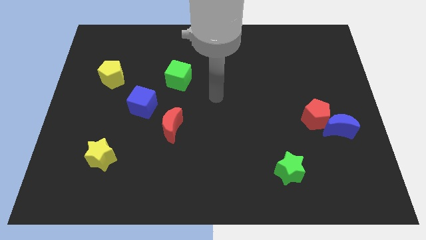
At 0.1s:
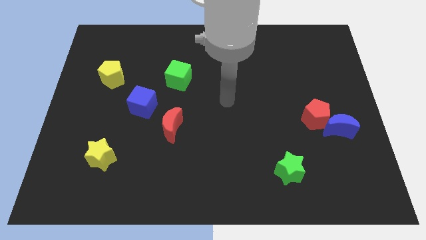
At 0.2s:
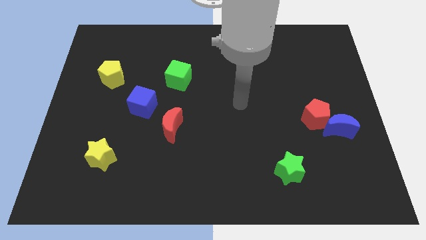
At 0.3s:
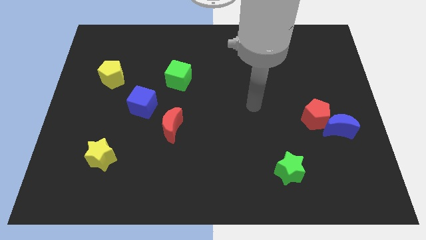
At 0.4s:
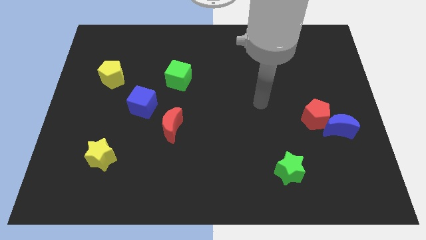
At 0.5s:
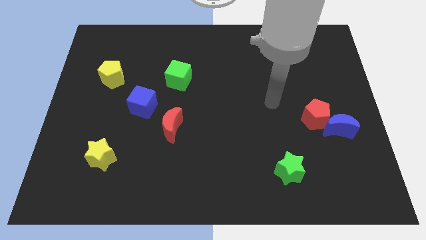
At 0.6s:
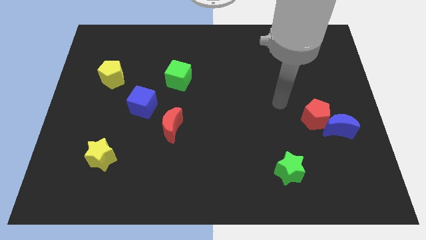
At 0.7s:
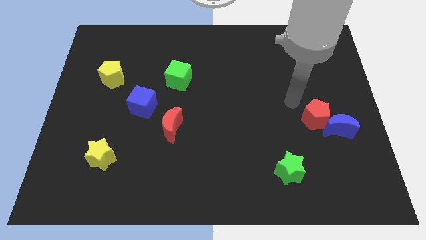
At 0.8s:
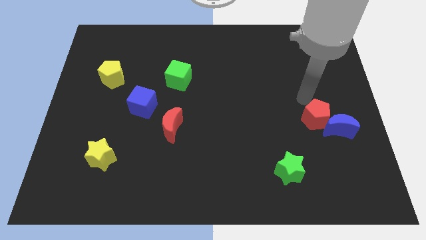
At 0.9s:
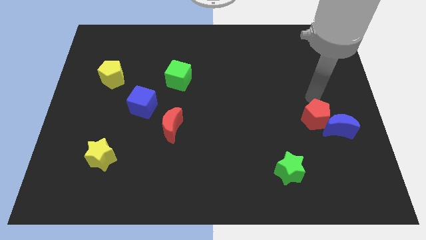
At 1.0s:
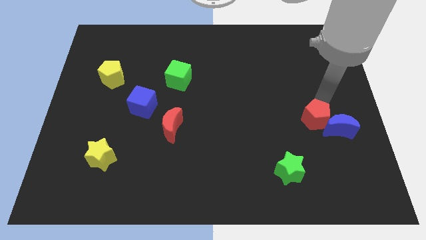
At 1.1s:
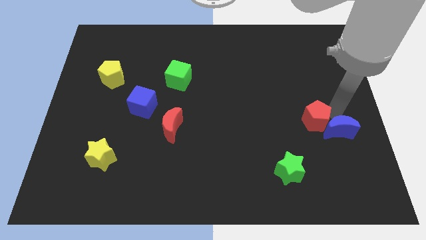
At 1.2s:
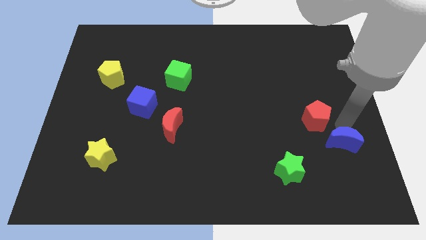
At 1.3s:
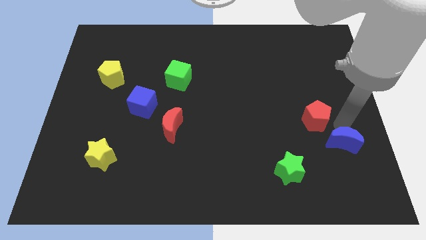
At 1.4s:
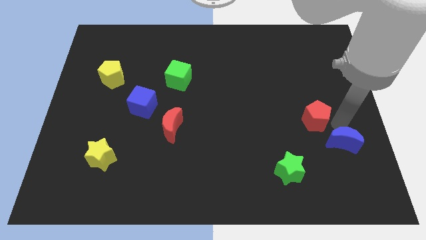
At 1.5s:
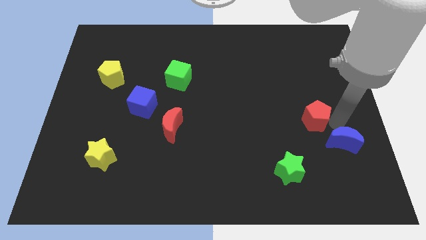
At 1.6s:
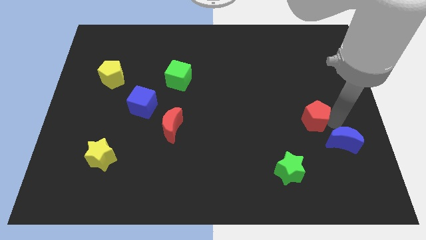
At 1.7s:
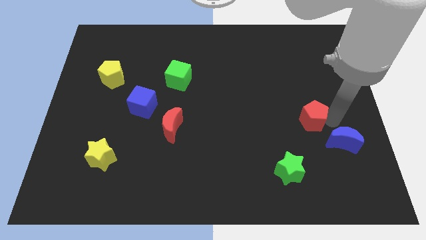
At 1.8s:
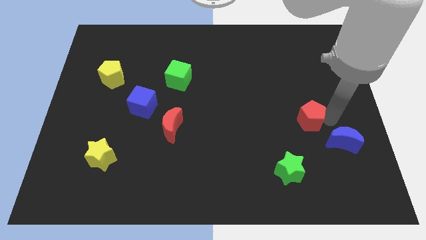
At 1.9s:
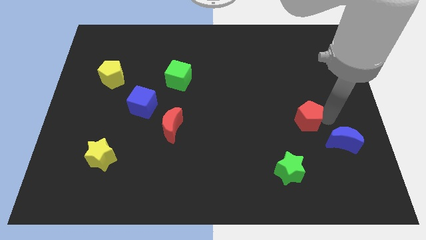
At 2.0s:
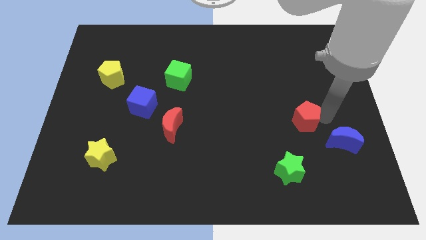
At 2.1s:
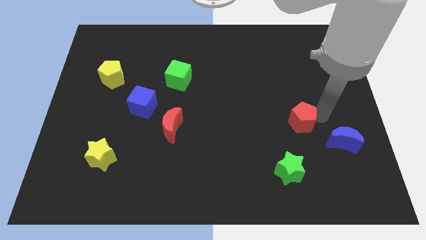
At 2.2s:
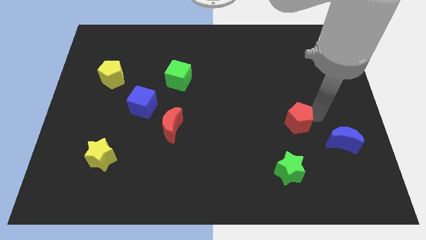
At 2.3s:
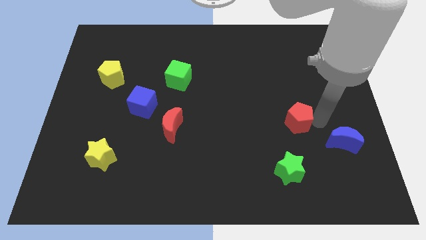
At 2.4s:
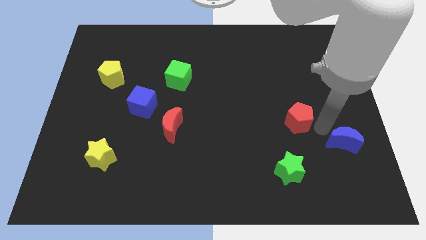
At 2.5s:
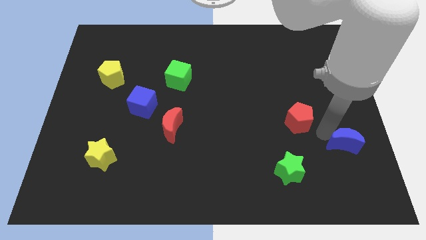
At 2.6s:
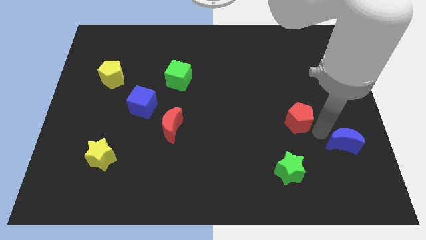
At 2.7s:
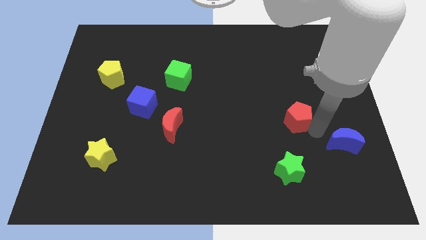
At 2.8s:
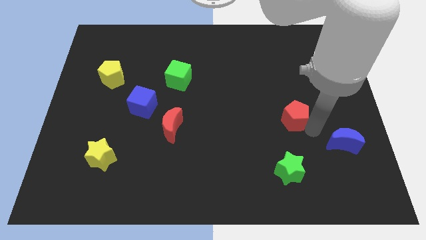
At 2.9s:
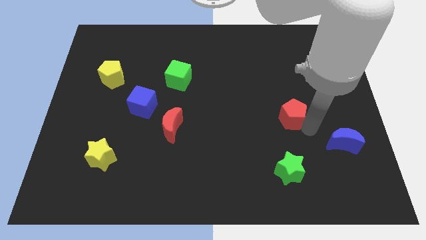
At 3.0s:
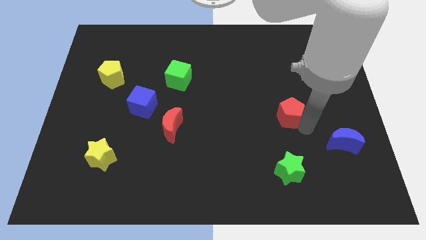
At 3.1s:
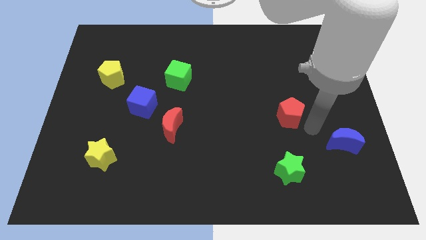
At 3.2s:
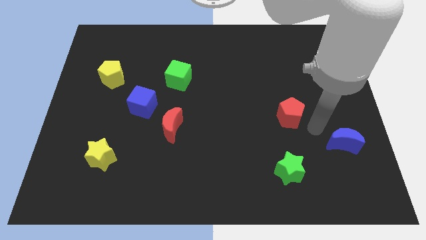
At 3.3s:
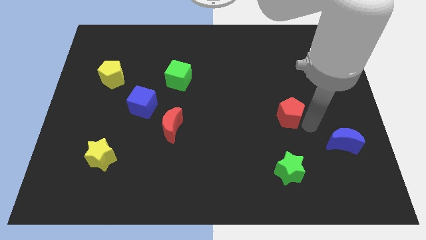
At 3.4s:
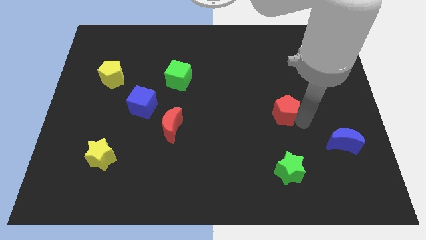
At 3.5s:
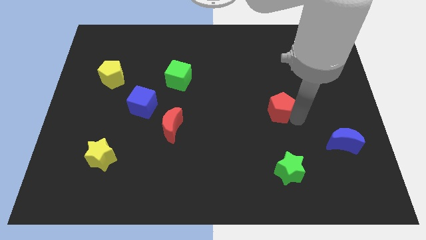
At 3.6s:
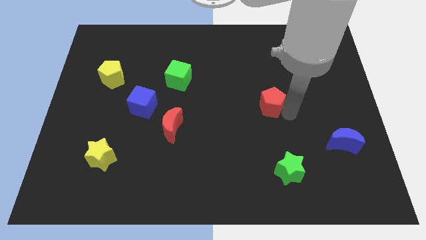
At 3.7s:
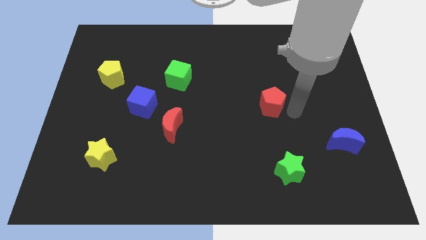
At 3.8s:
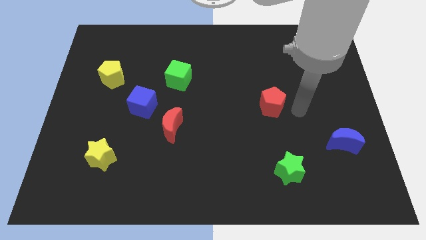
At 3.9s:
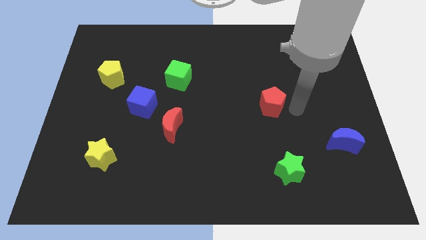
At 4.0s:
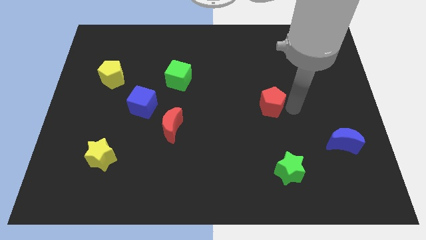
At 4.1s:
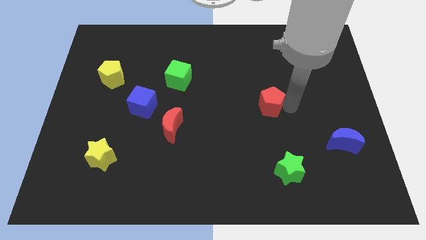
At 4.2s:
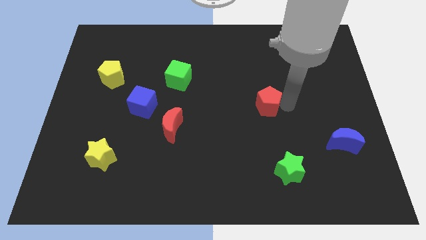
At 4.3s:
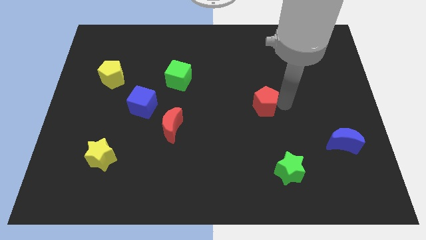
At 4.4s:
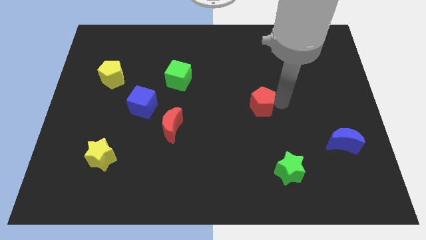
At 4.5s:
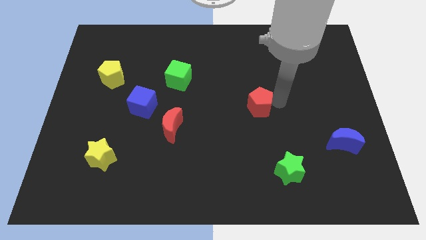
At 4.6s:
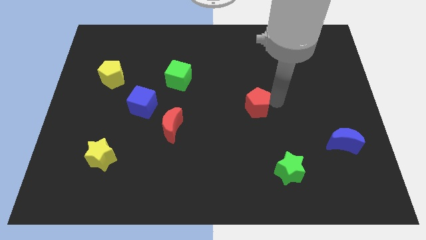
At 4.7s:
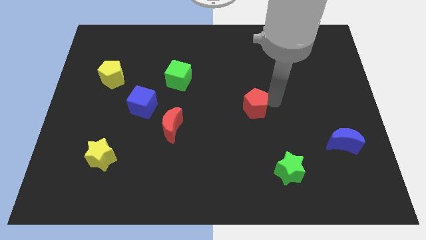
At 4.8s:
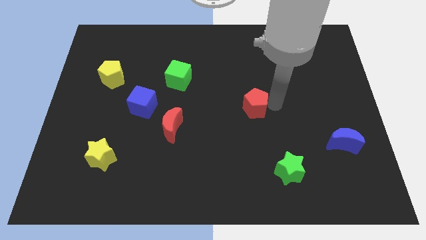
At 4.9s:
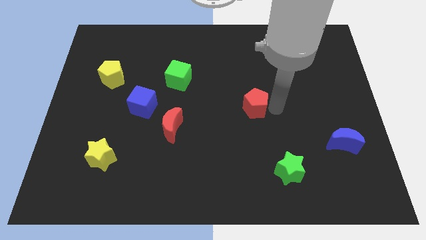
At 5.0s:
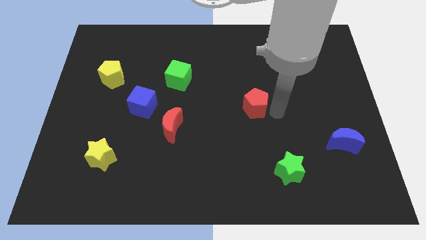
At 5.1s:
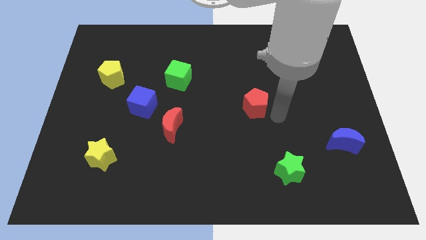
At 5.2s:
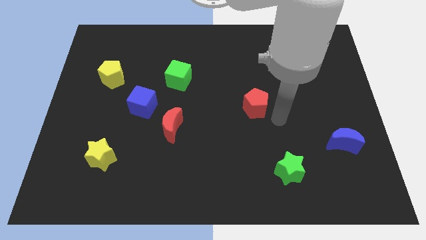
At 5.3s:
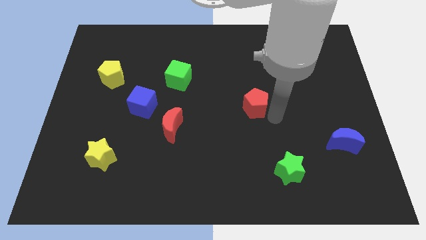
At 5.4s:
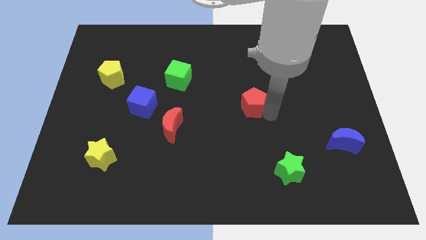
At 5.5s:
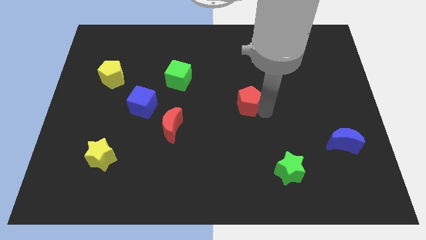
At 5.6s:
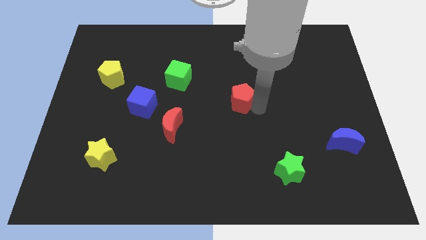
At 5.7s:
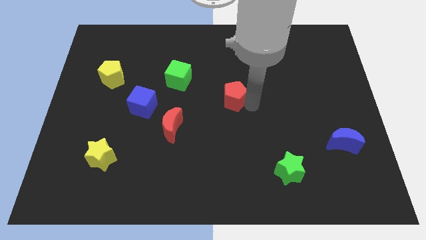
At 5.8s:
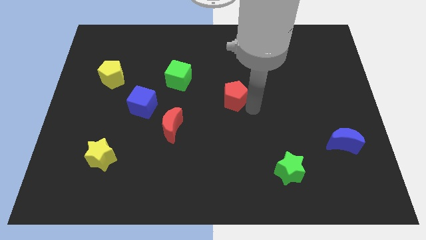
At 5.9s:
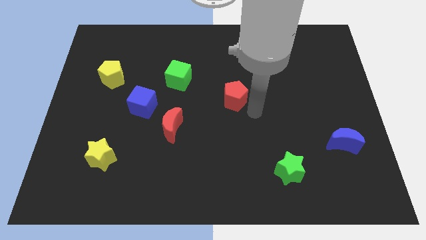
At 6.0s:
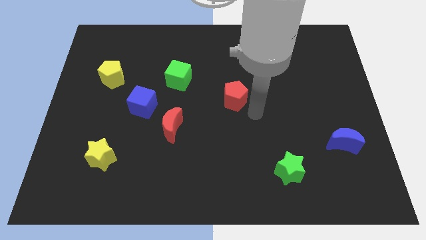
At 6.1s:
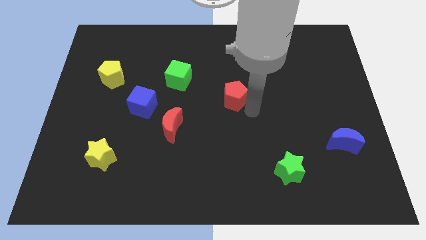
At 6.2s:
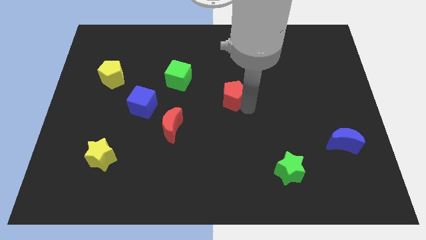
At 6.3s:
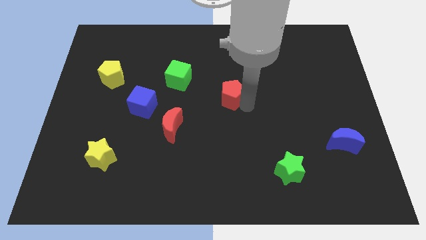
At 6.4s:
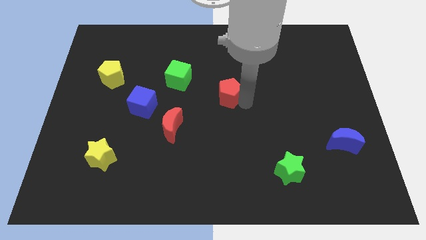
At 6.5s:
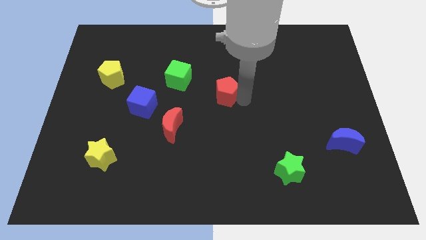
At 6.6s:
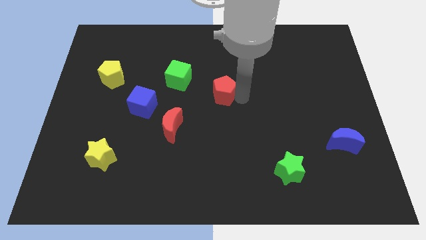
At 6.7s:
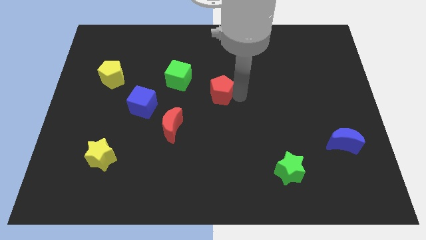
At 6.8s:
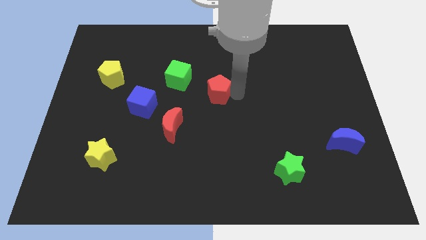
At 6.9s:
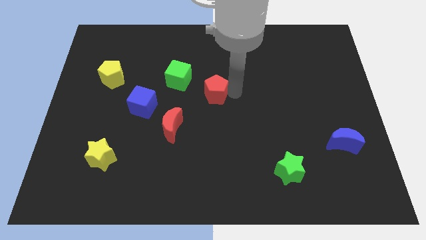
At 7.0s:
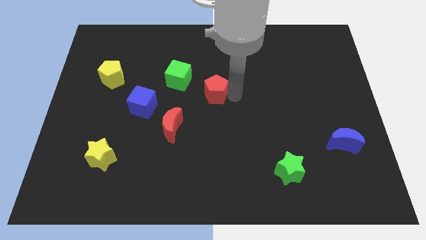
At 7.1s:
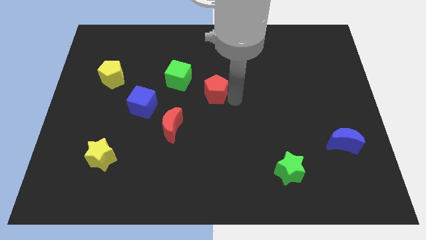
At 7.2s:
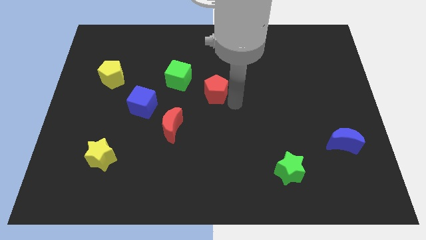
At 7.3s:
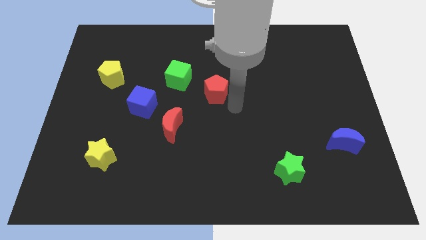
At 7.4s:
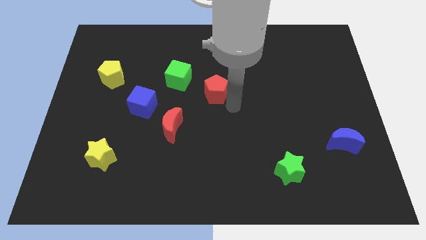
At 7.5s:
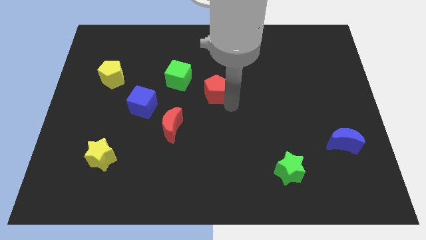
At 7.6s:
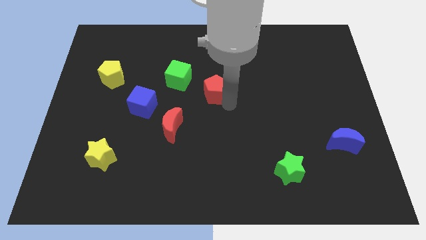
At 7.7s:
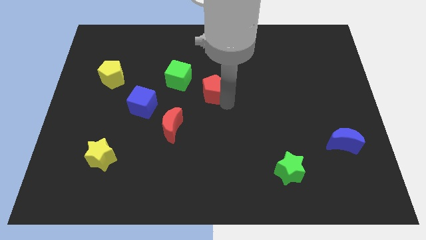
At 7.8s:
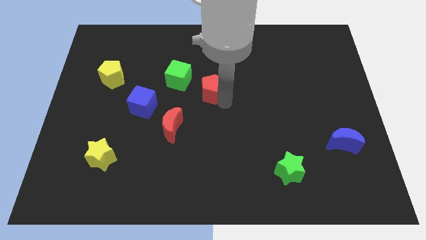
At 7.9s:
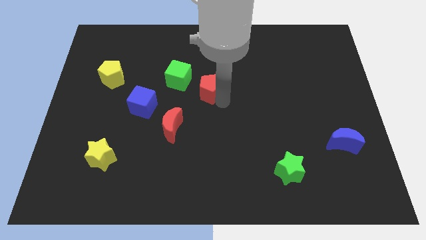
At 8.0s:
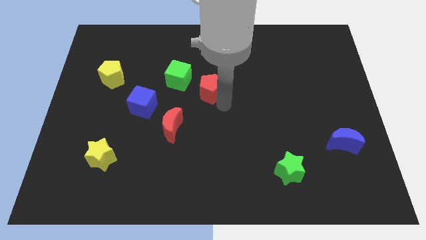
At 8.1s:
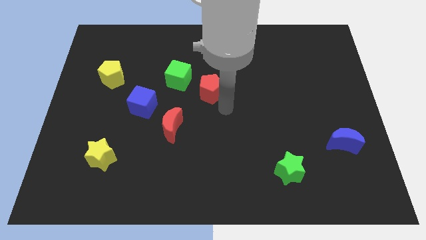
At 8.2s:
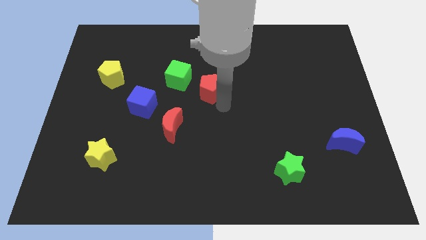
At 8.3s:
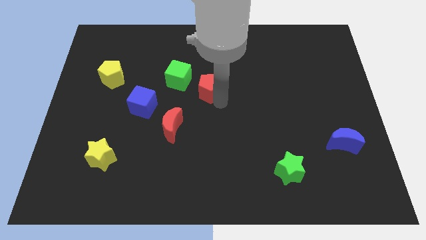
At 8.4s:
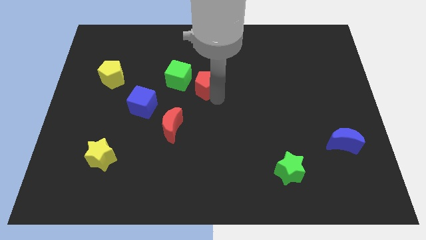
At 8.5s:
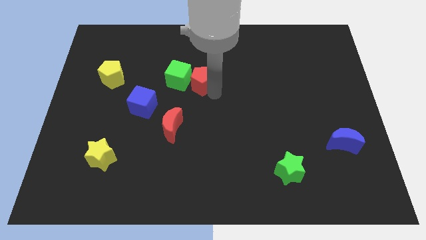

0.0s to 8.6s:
put the red pentagon towards the green cube
